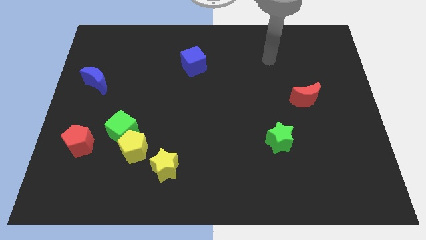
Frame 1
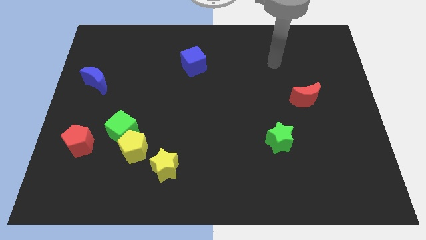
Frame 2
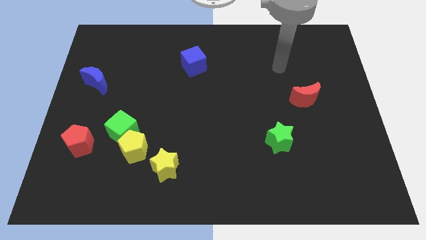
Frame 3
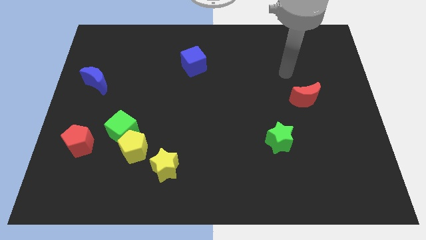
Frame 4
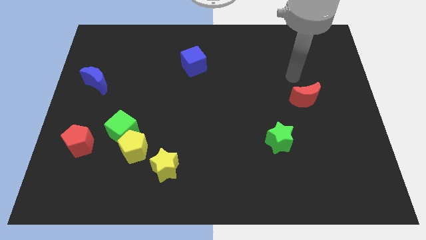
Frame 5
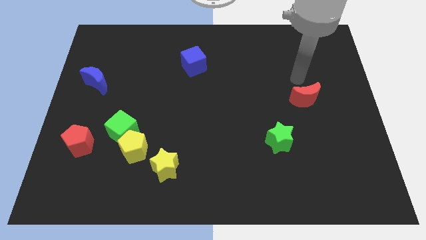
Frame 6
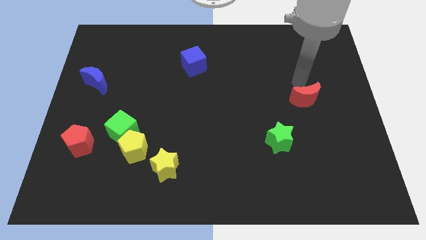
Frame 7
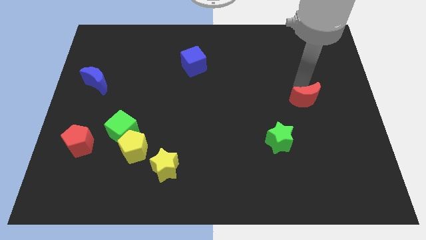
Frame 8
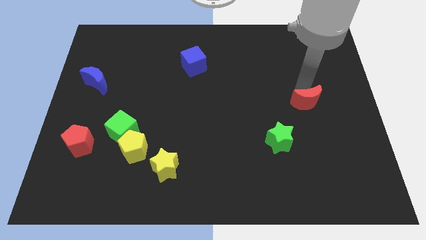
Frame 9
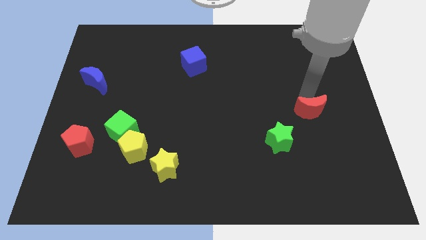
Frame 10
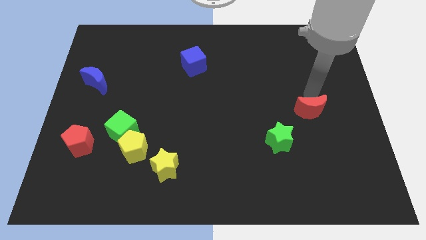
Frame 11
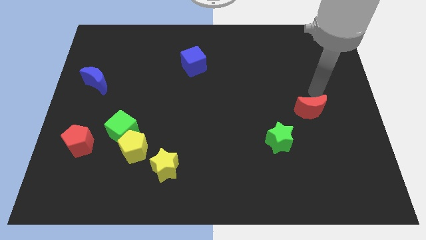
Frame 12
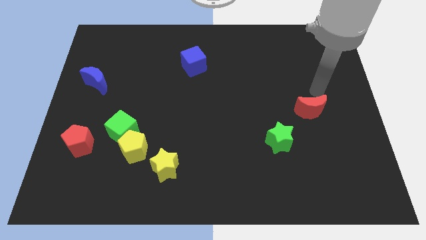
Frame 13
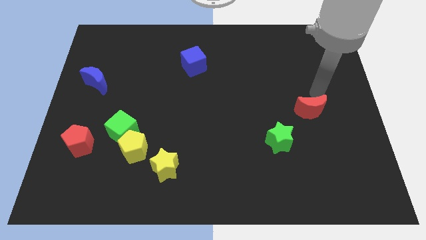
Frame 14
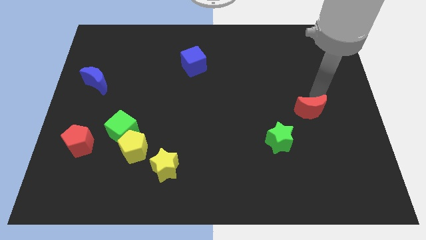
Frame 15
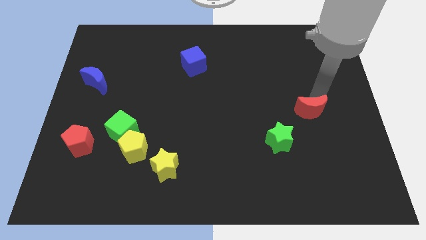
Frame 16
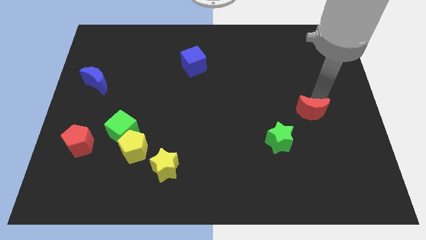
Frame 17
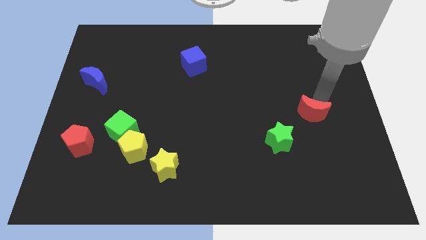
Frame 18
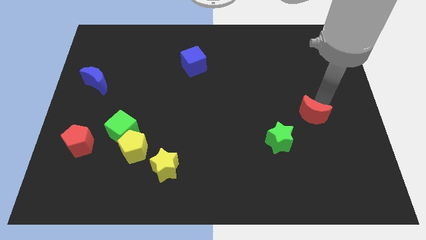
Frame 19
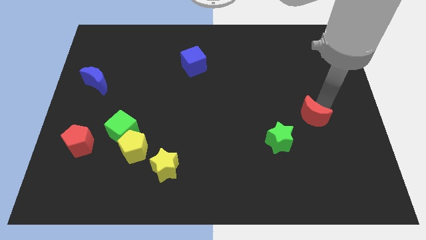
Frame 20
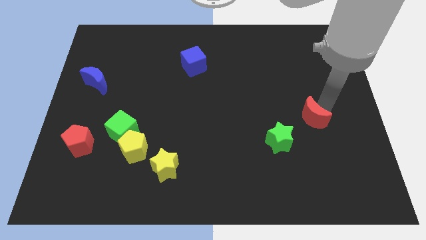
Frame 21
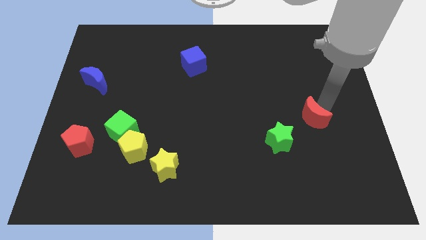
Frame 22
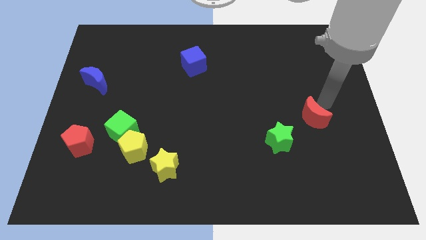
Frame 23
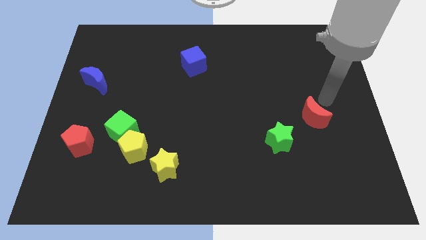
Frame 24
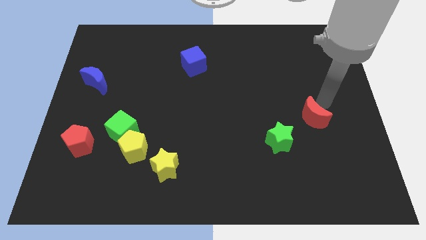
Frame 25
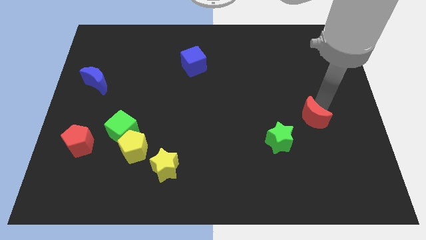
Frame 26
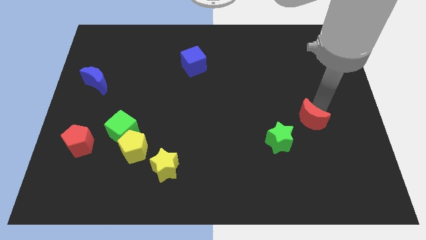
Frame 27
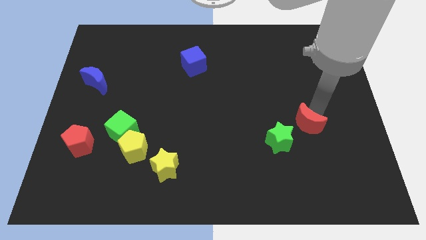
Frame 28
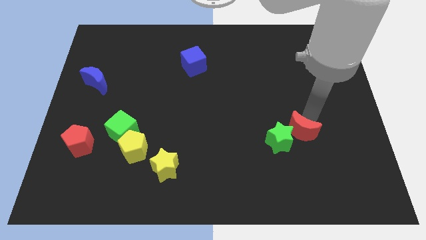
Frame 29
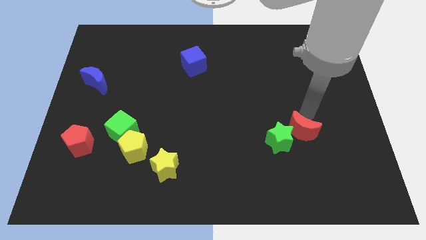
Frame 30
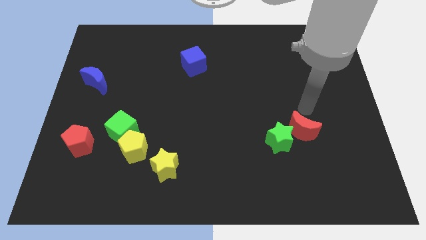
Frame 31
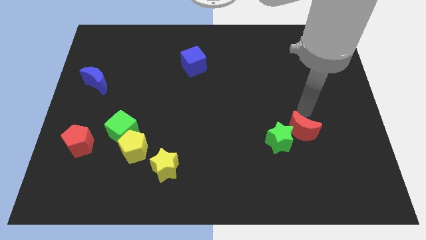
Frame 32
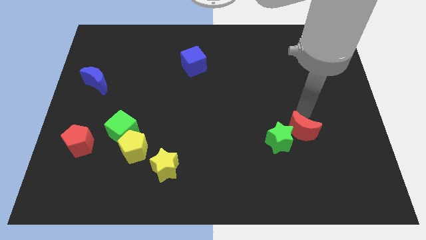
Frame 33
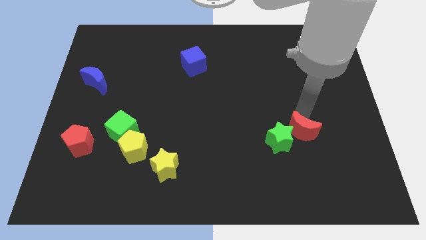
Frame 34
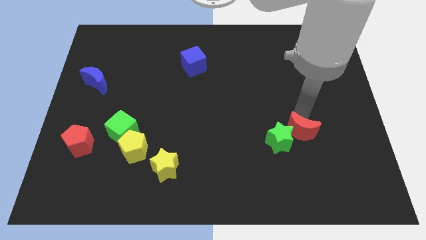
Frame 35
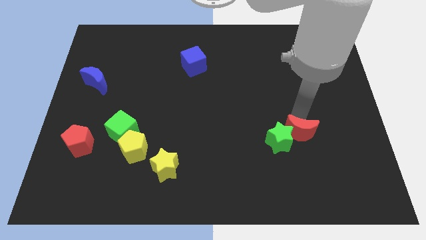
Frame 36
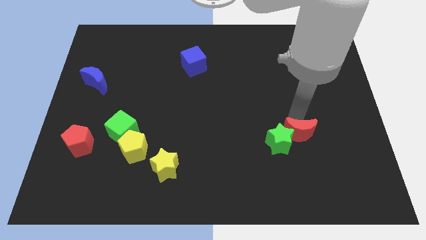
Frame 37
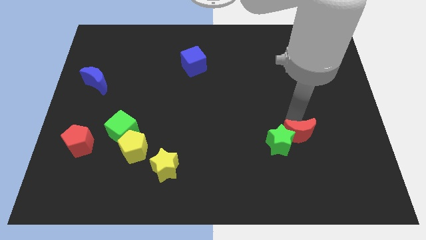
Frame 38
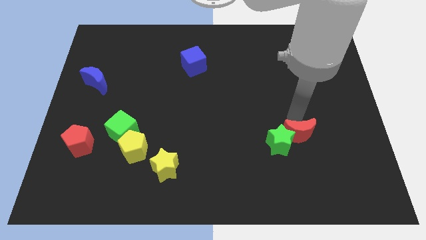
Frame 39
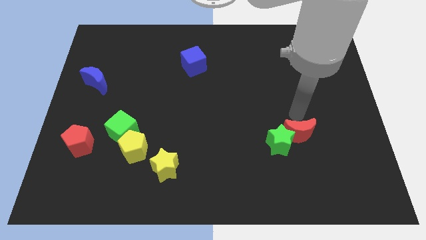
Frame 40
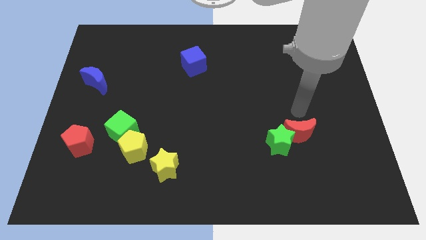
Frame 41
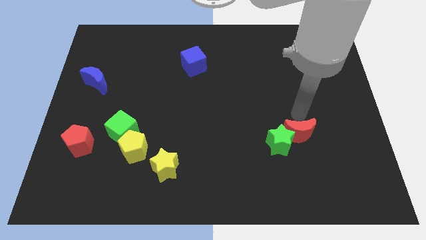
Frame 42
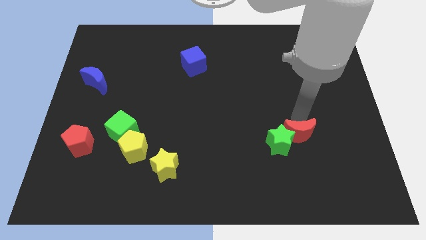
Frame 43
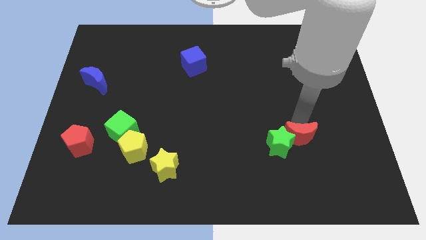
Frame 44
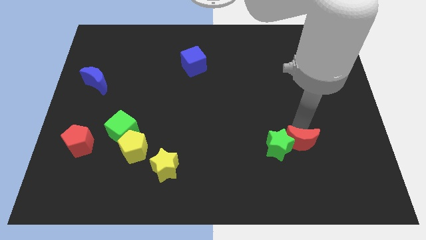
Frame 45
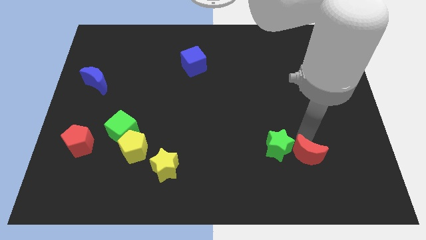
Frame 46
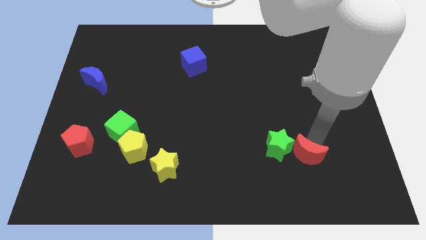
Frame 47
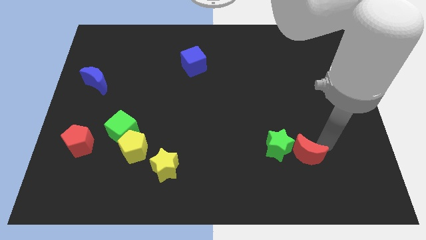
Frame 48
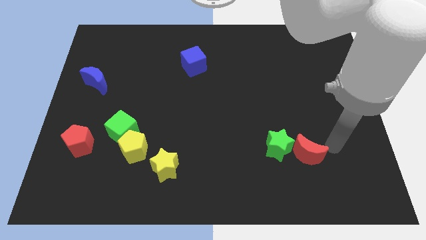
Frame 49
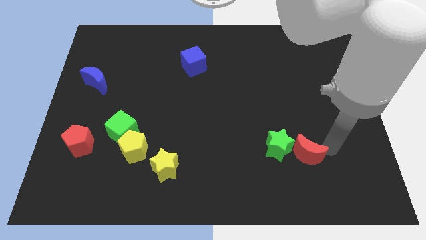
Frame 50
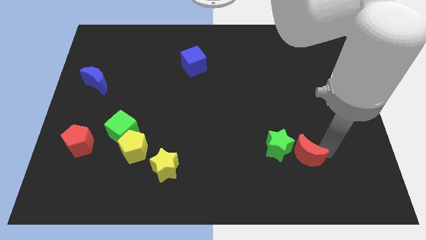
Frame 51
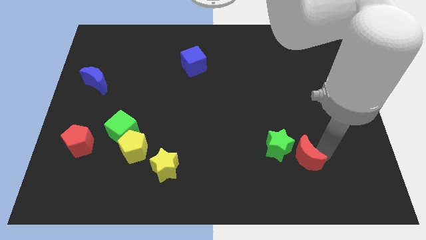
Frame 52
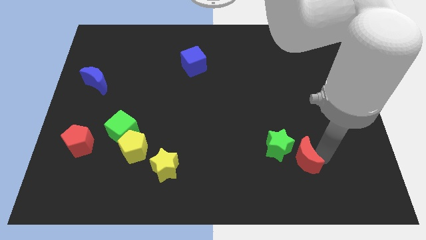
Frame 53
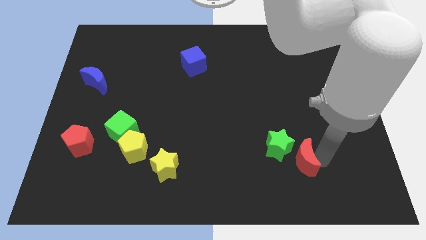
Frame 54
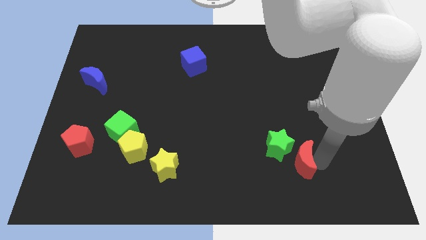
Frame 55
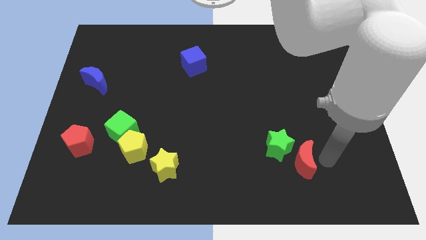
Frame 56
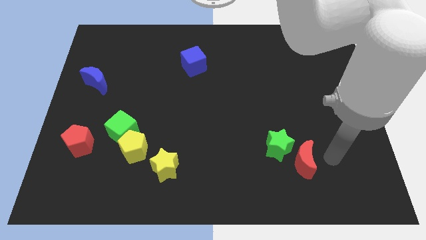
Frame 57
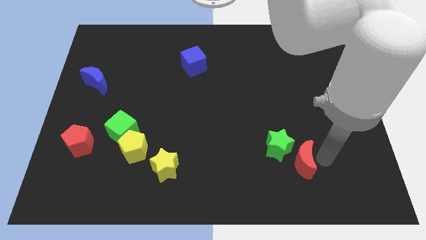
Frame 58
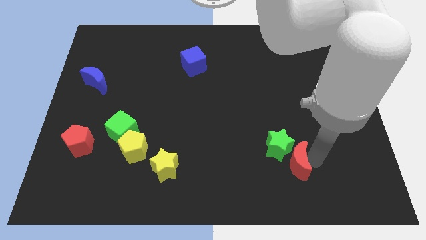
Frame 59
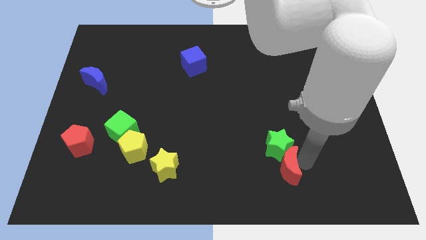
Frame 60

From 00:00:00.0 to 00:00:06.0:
move the red moon diagonally down and to the left of the green star

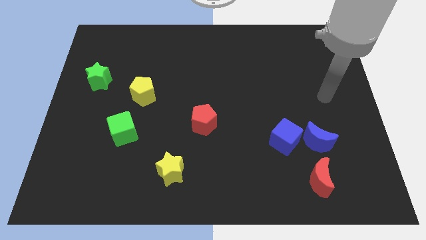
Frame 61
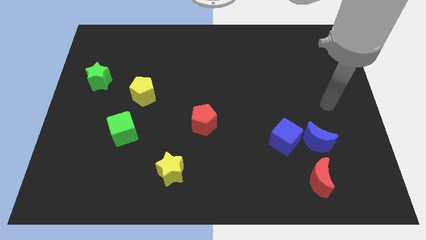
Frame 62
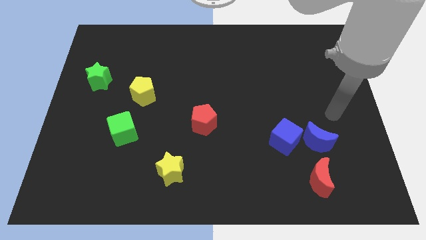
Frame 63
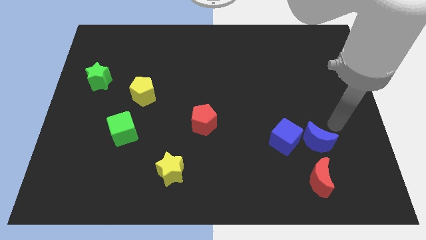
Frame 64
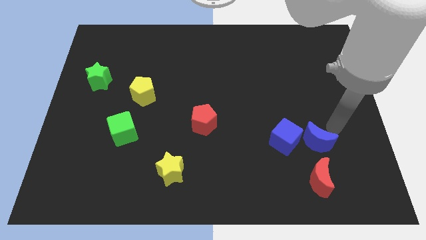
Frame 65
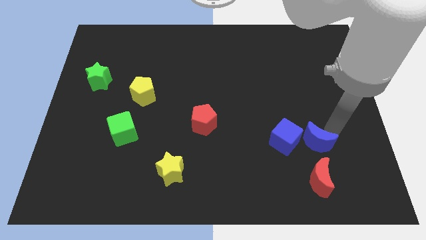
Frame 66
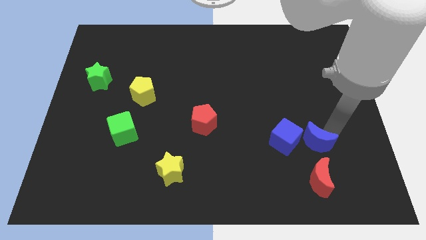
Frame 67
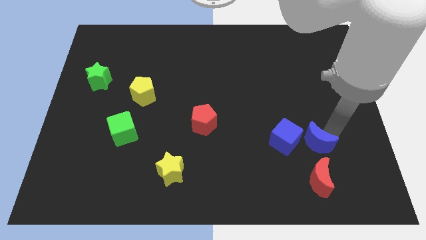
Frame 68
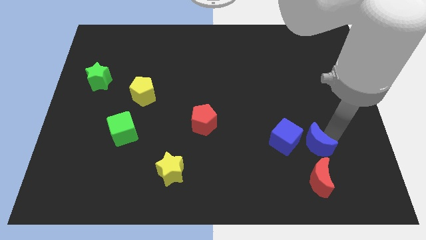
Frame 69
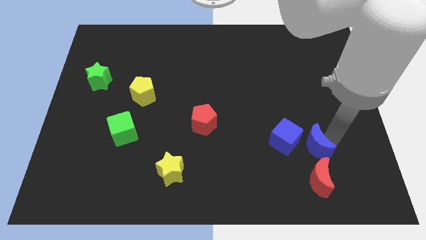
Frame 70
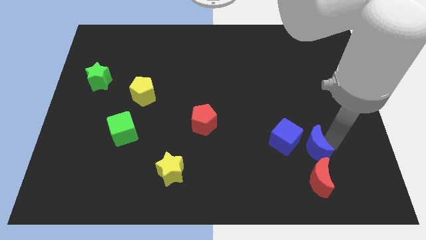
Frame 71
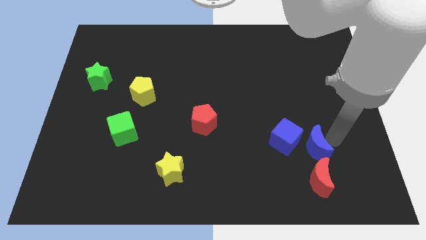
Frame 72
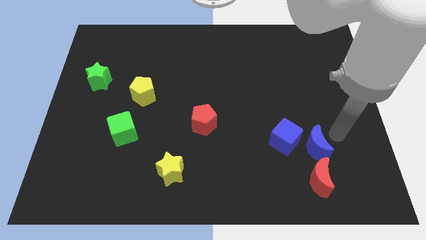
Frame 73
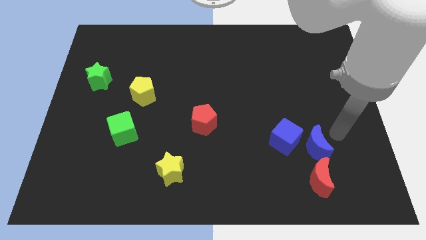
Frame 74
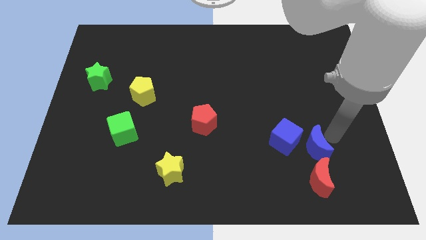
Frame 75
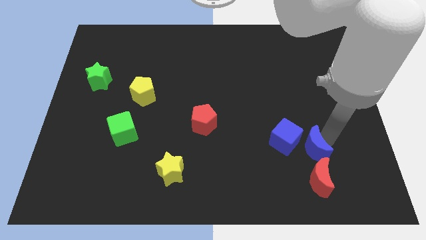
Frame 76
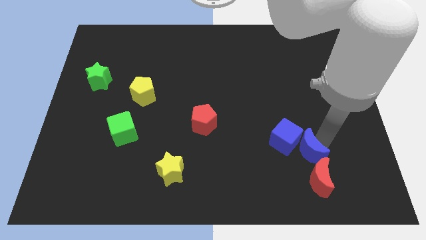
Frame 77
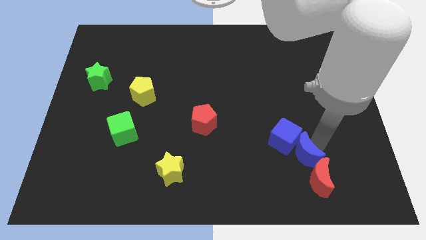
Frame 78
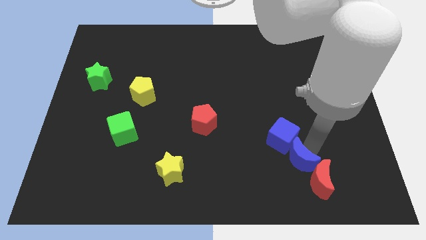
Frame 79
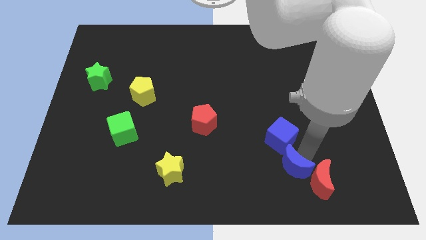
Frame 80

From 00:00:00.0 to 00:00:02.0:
put the blue moon left of the red moon

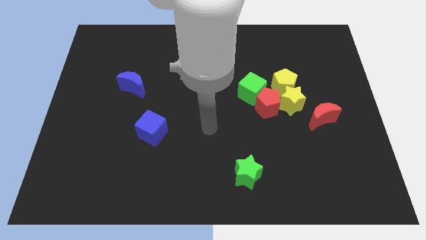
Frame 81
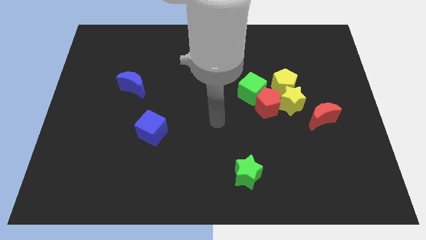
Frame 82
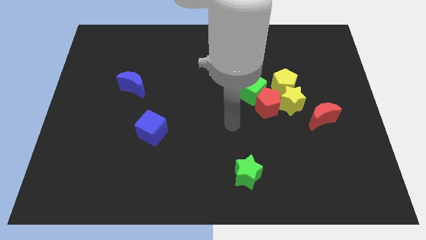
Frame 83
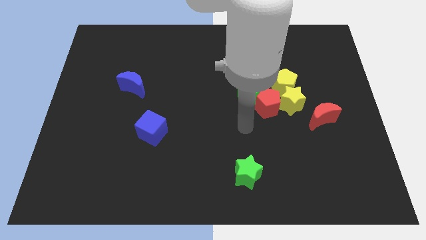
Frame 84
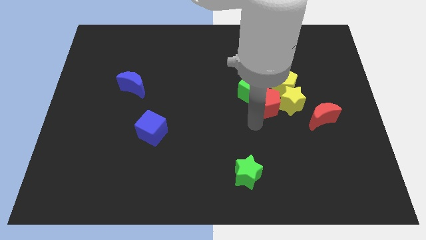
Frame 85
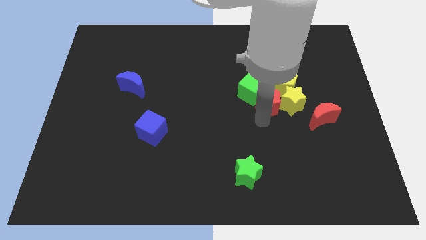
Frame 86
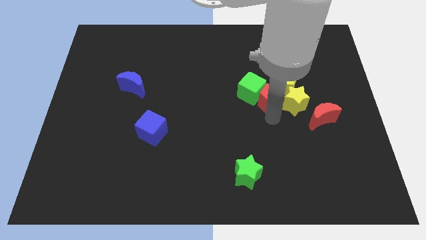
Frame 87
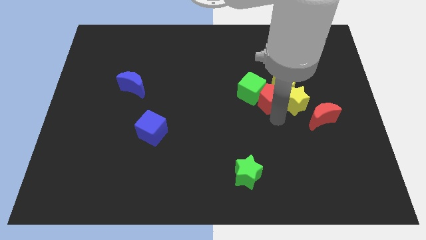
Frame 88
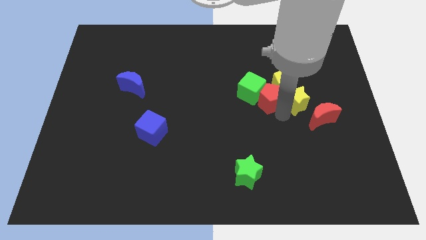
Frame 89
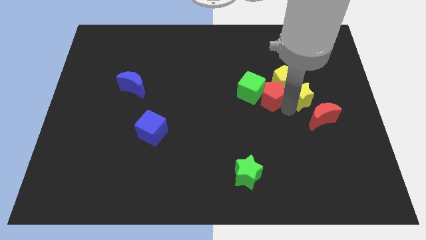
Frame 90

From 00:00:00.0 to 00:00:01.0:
push the yellow star above the red moon
